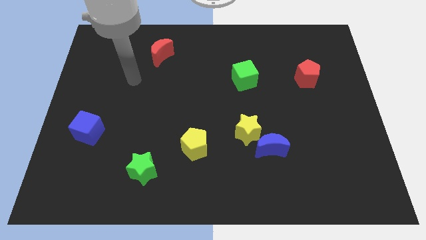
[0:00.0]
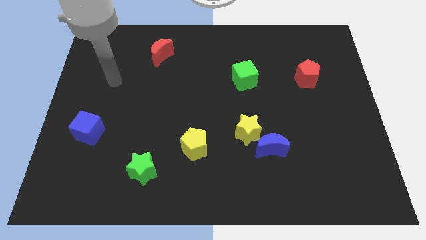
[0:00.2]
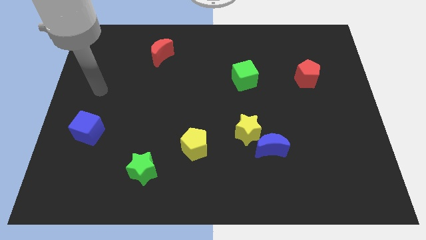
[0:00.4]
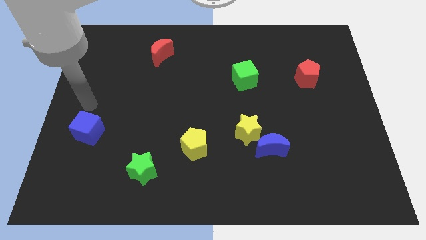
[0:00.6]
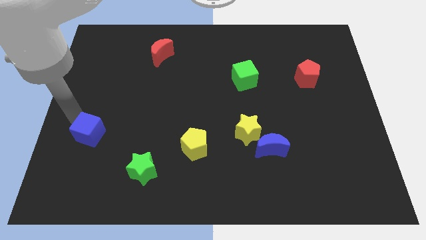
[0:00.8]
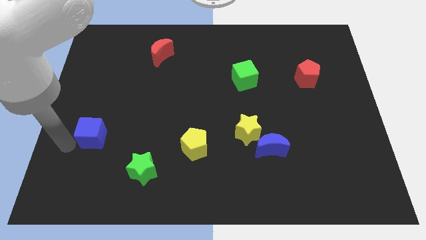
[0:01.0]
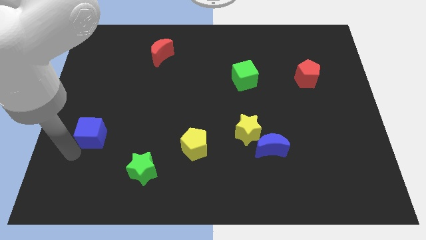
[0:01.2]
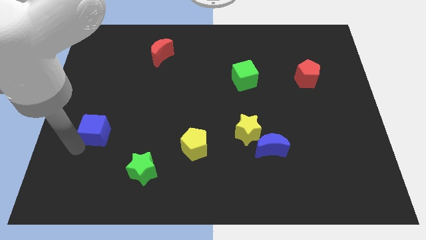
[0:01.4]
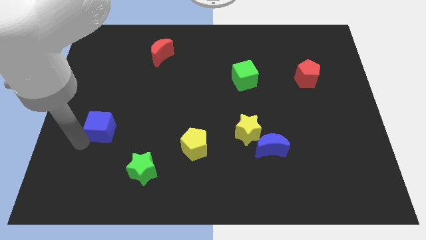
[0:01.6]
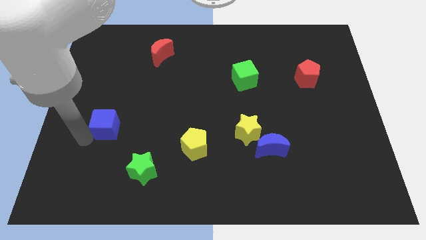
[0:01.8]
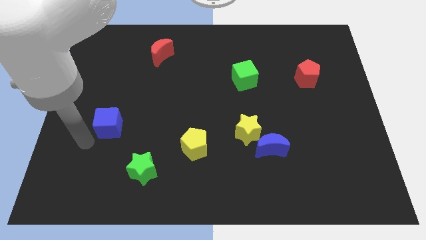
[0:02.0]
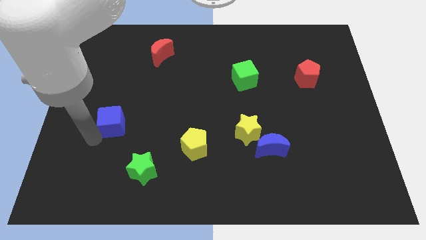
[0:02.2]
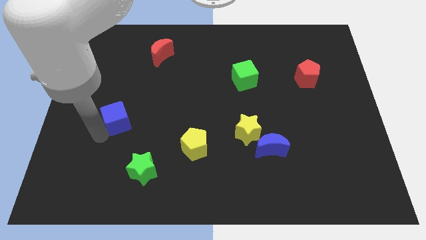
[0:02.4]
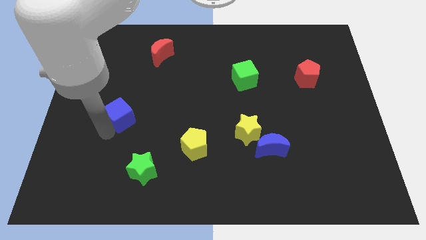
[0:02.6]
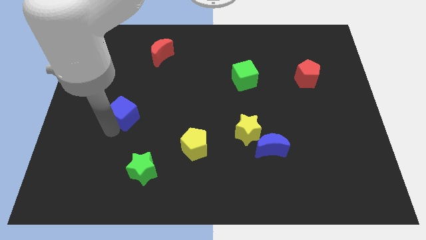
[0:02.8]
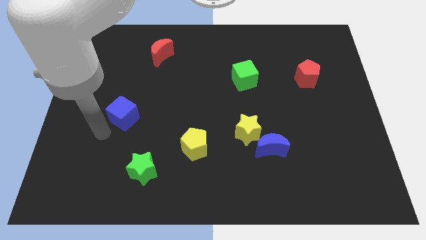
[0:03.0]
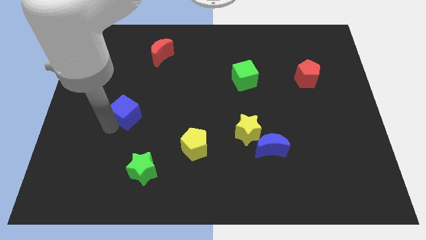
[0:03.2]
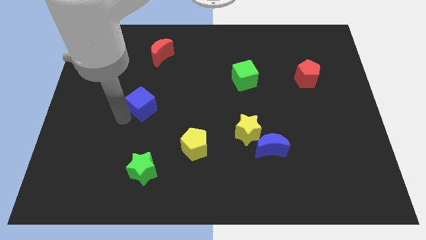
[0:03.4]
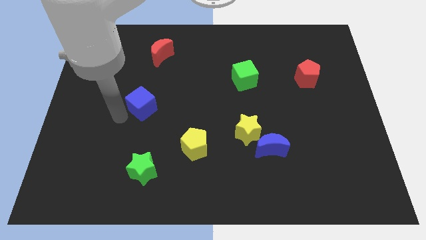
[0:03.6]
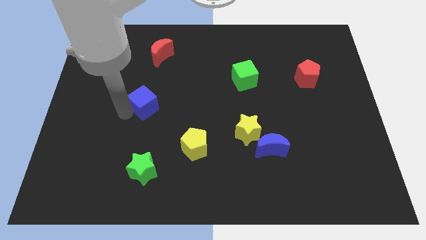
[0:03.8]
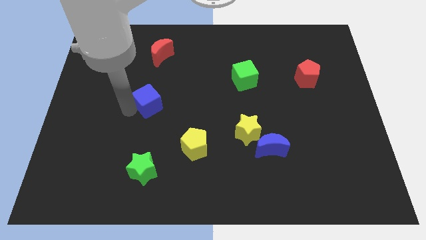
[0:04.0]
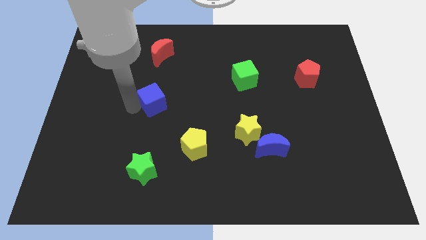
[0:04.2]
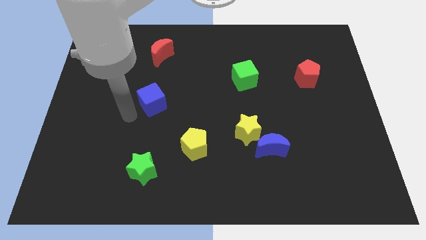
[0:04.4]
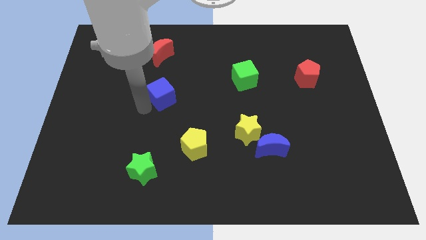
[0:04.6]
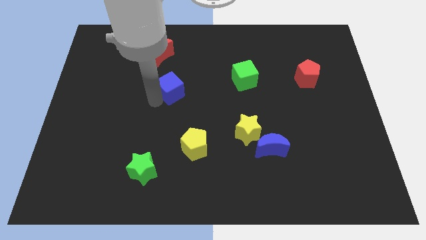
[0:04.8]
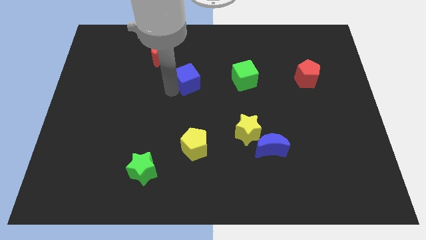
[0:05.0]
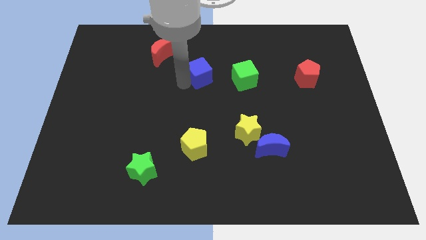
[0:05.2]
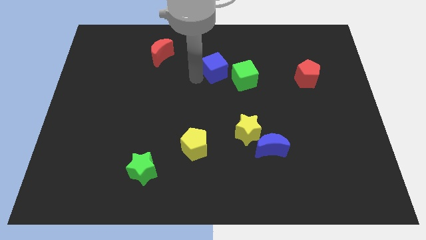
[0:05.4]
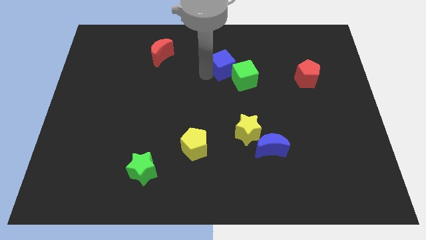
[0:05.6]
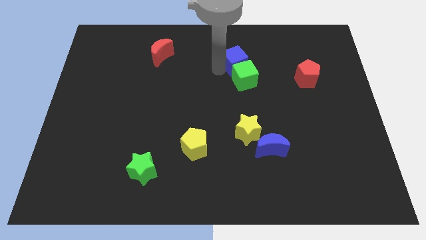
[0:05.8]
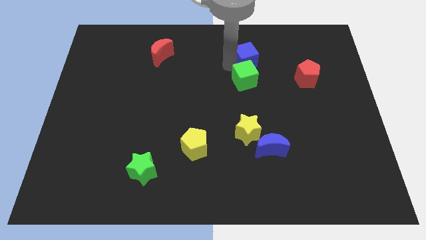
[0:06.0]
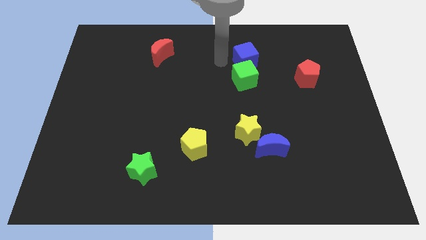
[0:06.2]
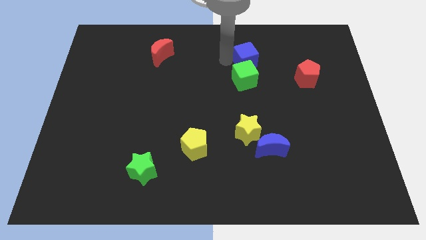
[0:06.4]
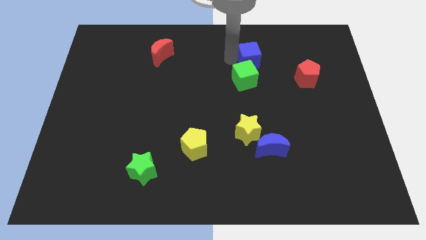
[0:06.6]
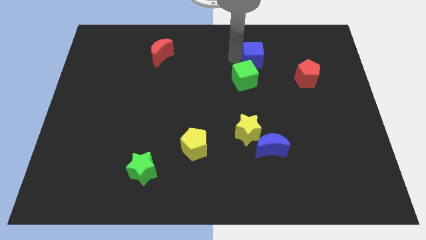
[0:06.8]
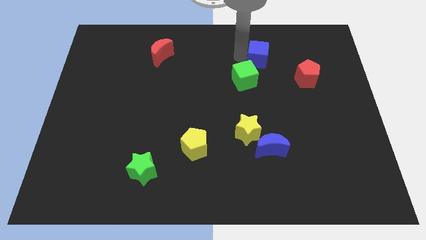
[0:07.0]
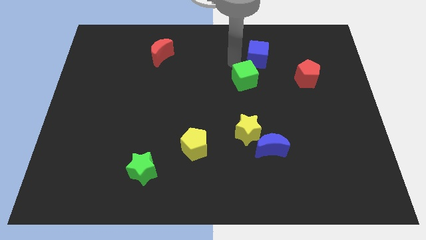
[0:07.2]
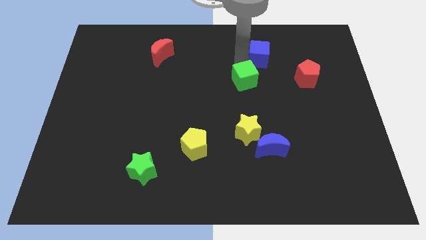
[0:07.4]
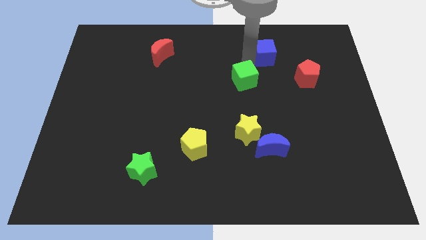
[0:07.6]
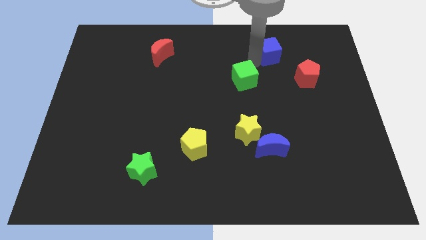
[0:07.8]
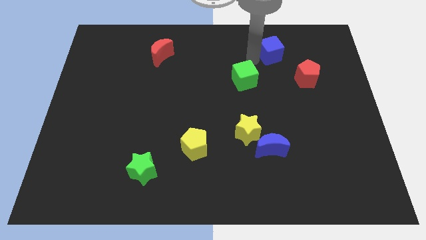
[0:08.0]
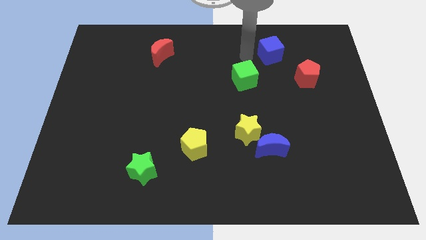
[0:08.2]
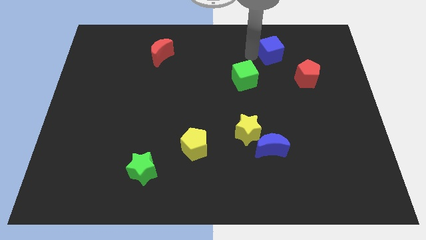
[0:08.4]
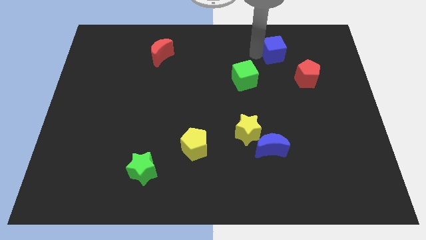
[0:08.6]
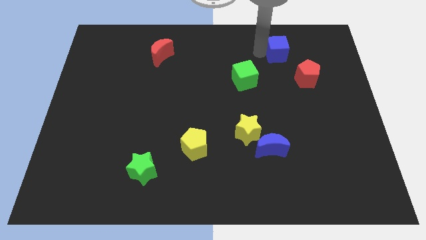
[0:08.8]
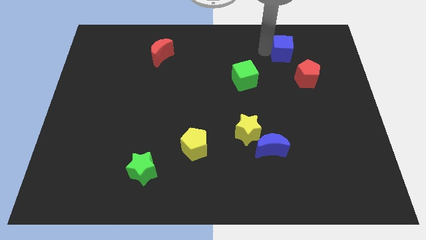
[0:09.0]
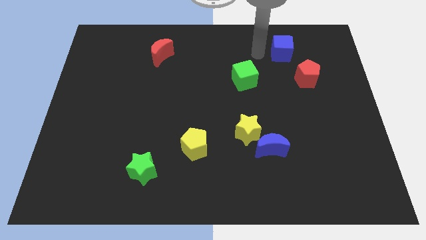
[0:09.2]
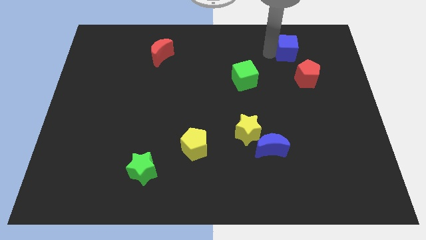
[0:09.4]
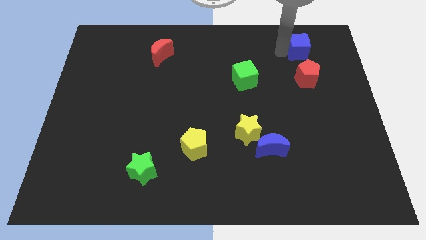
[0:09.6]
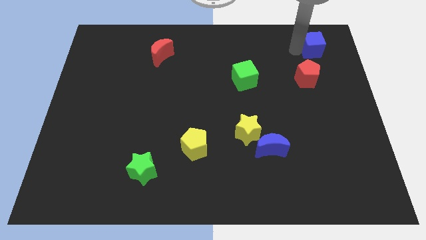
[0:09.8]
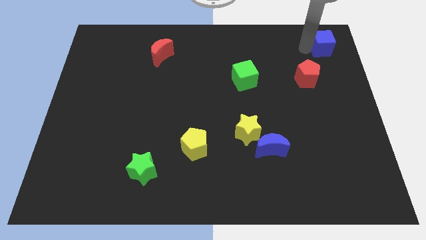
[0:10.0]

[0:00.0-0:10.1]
slide the blue cube to the top right of the board
